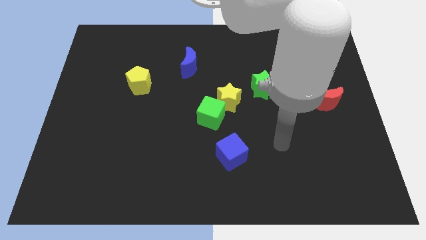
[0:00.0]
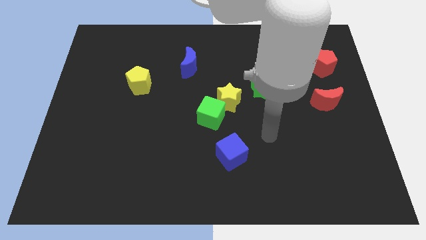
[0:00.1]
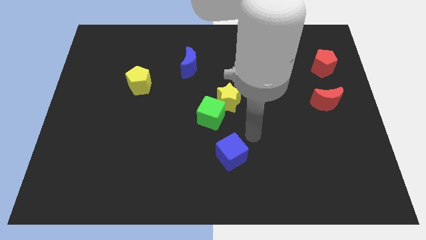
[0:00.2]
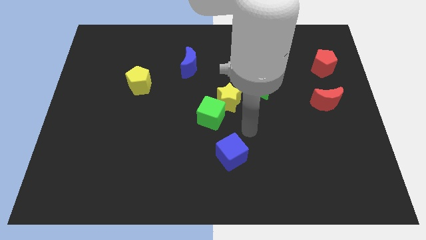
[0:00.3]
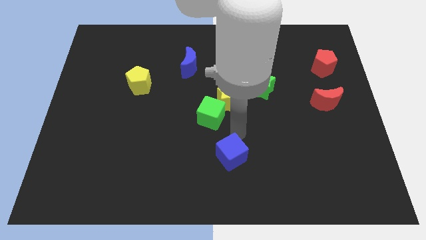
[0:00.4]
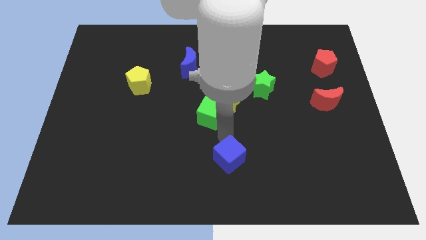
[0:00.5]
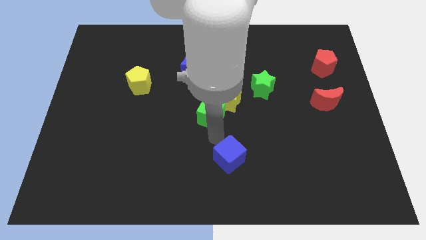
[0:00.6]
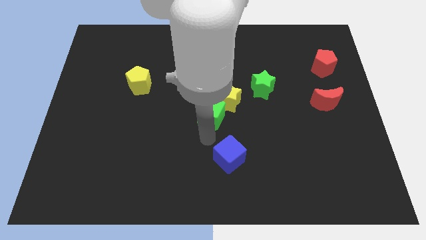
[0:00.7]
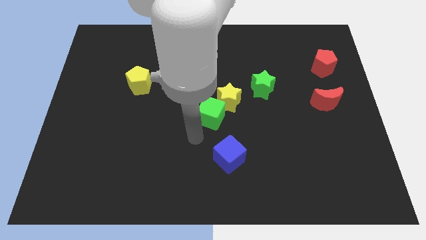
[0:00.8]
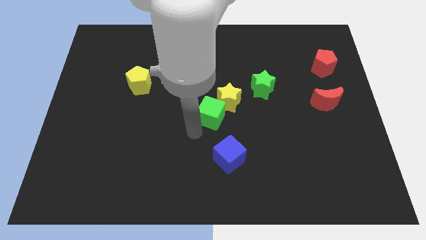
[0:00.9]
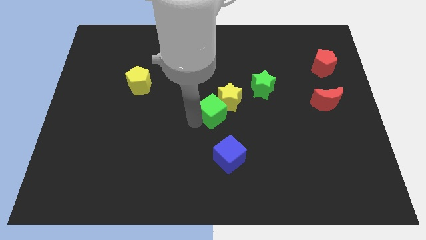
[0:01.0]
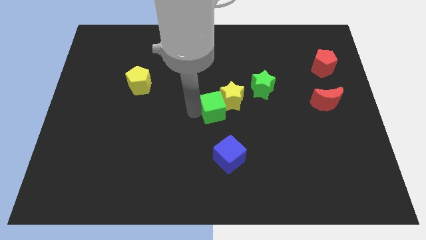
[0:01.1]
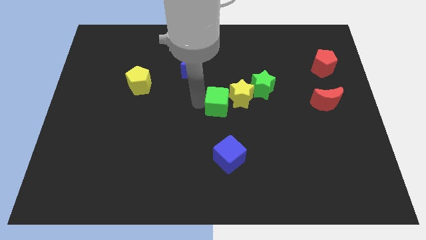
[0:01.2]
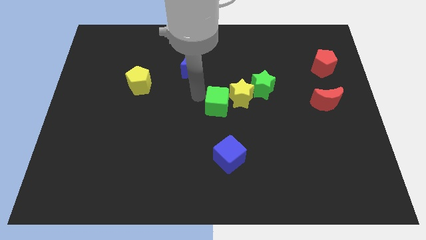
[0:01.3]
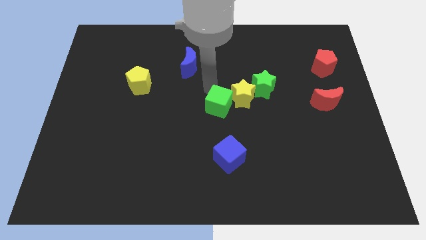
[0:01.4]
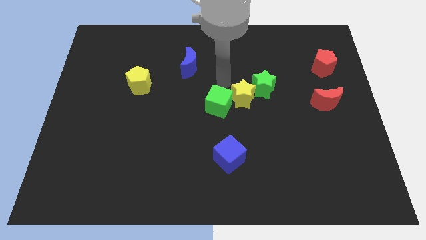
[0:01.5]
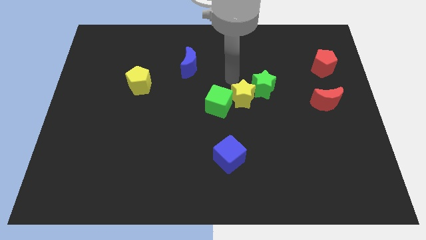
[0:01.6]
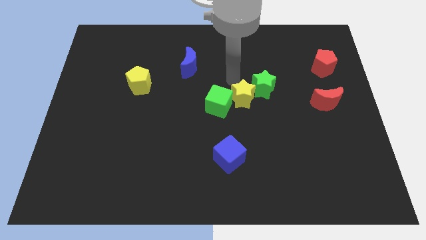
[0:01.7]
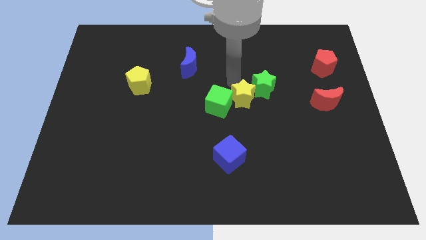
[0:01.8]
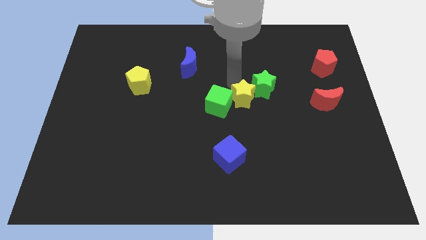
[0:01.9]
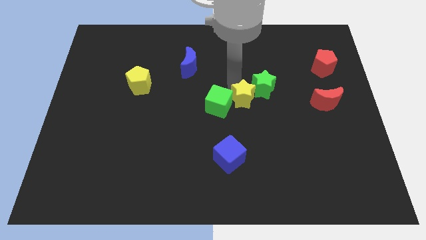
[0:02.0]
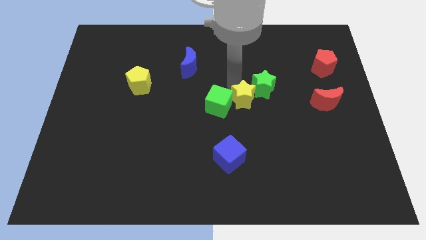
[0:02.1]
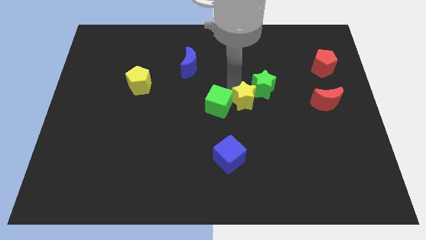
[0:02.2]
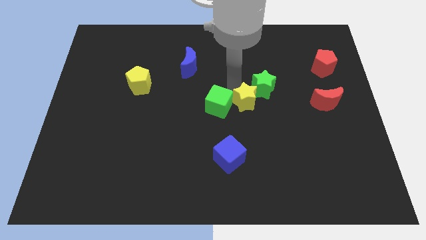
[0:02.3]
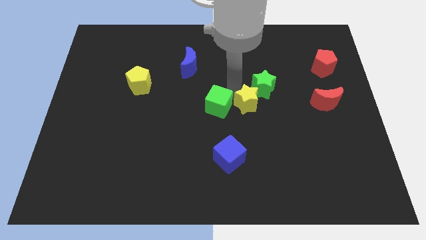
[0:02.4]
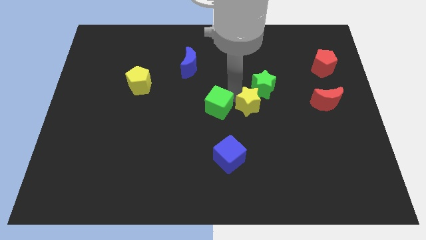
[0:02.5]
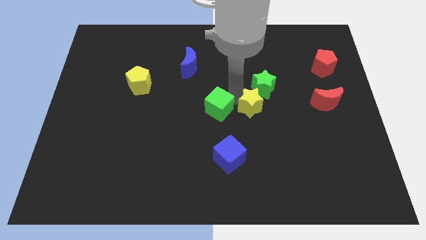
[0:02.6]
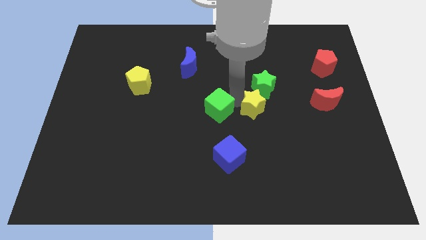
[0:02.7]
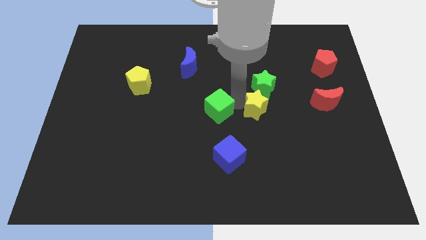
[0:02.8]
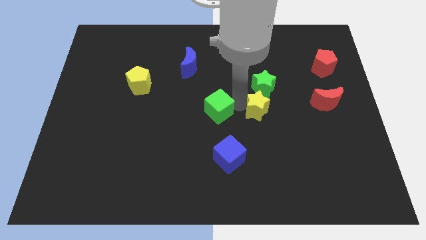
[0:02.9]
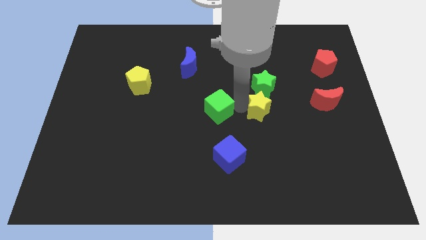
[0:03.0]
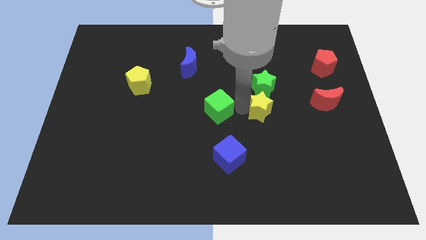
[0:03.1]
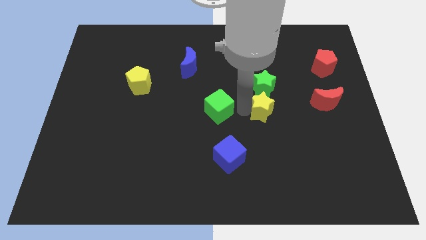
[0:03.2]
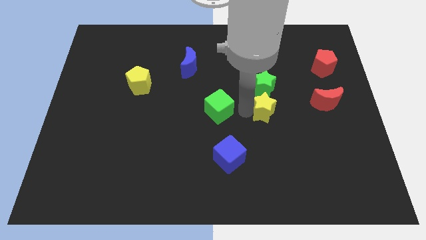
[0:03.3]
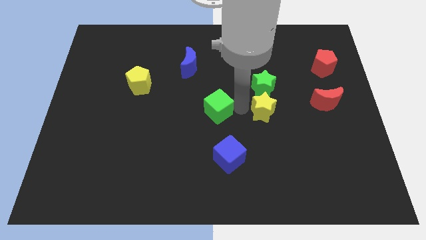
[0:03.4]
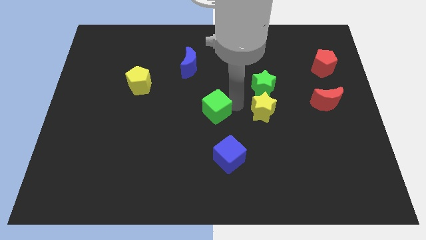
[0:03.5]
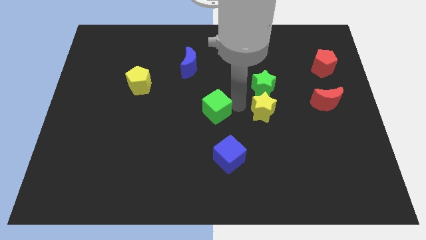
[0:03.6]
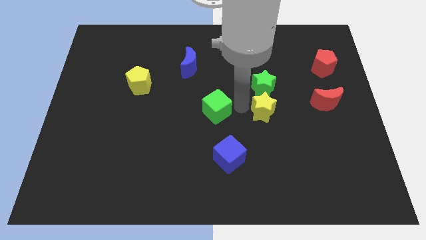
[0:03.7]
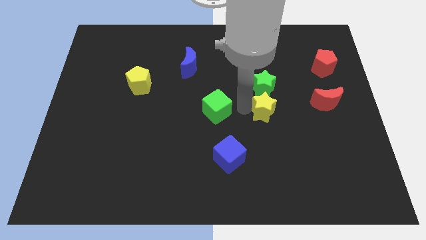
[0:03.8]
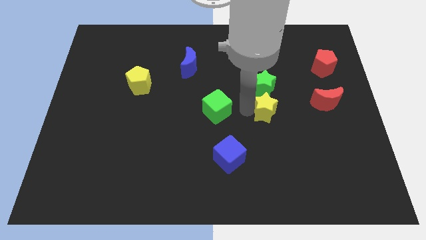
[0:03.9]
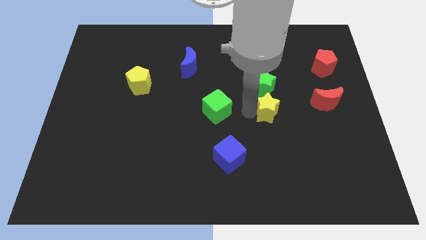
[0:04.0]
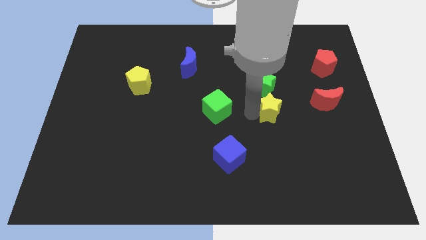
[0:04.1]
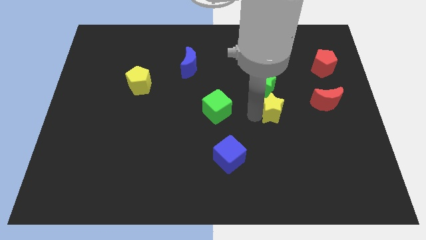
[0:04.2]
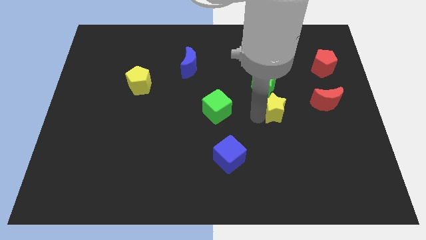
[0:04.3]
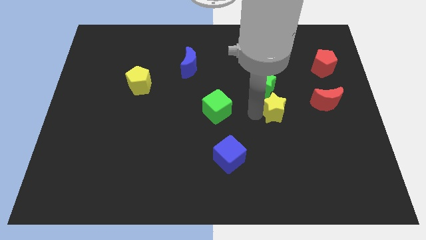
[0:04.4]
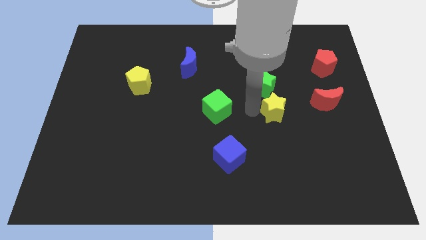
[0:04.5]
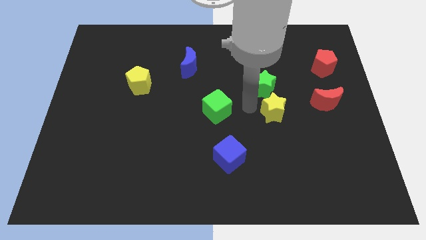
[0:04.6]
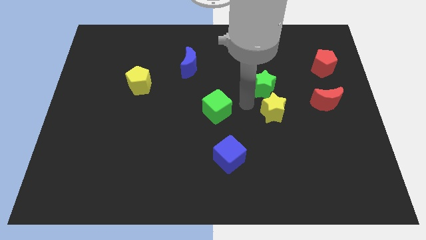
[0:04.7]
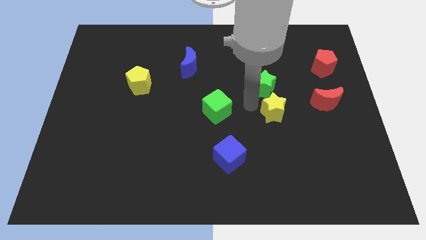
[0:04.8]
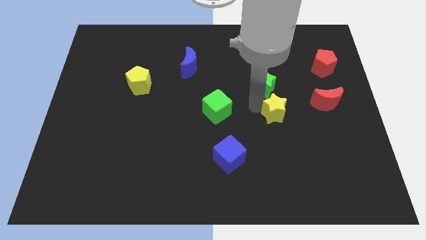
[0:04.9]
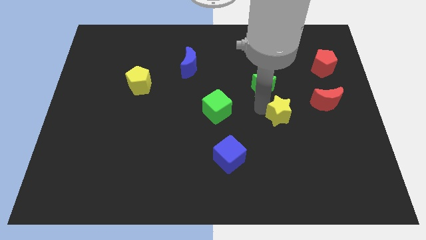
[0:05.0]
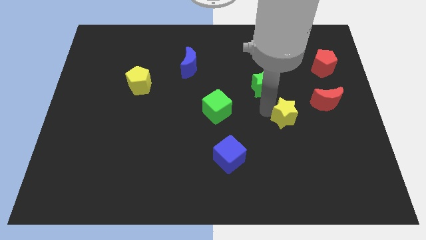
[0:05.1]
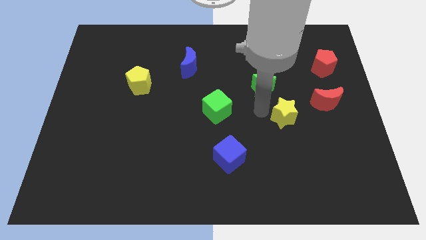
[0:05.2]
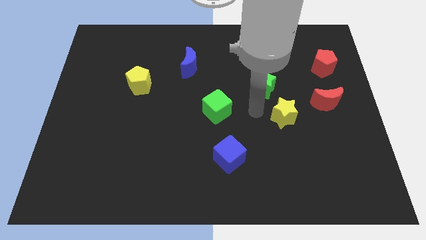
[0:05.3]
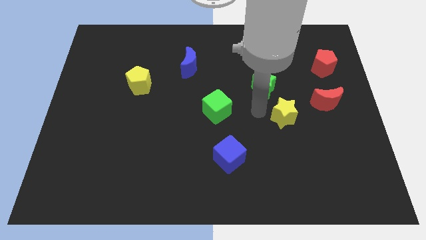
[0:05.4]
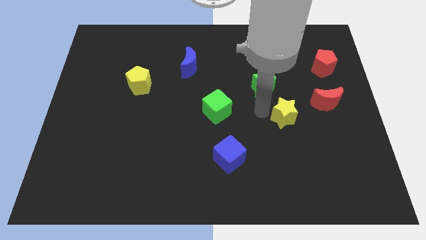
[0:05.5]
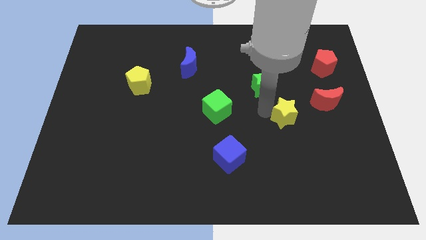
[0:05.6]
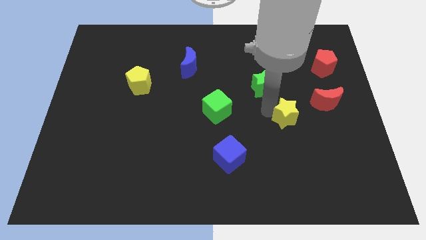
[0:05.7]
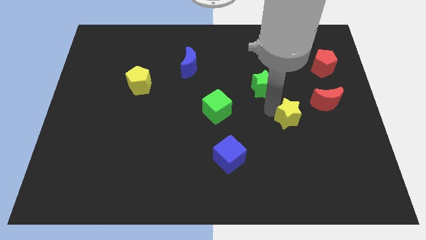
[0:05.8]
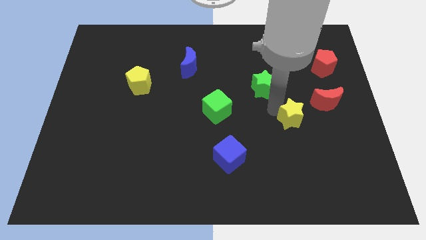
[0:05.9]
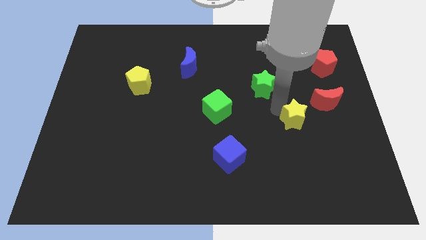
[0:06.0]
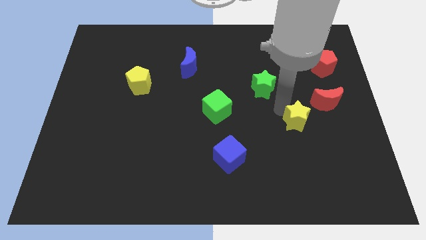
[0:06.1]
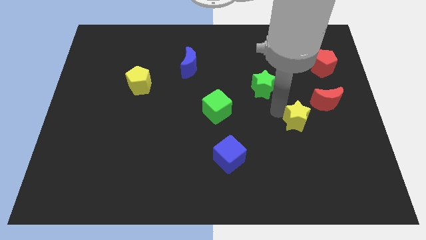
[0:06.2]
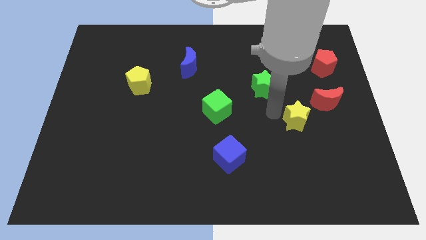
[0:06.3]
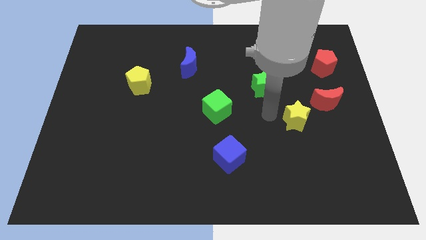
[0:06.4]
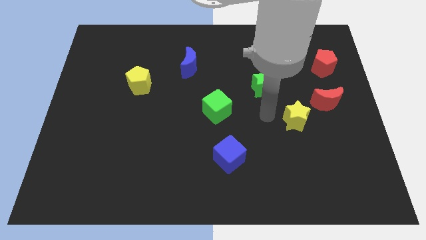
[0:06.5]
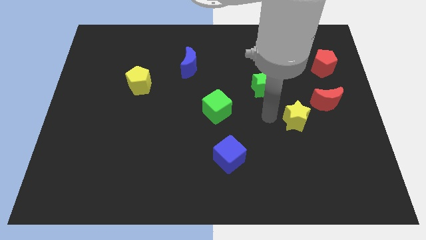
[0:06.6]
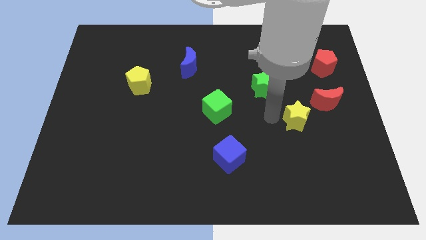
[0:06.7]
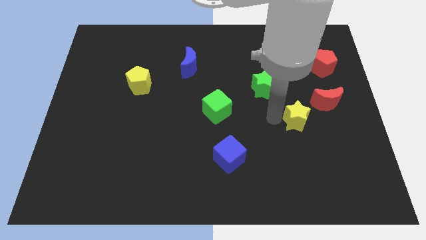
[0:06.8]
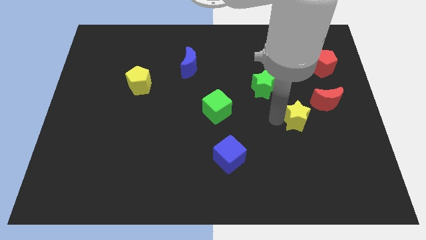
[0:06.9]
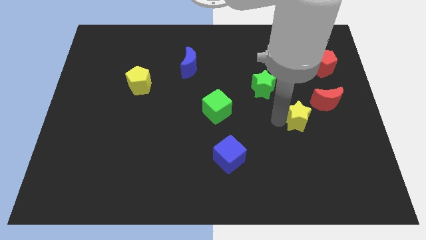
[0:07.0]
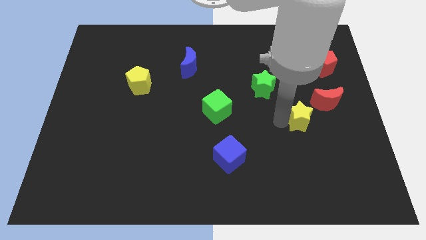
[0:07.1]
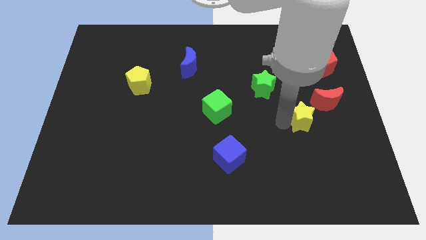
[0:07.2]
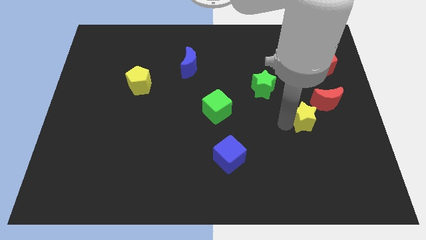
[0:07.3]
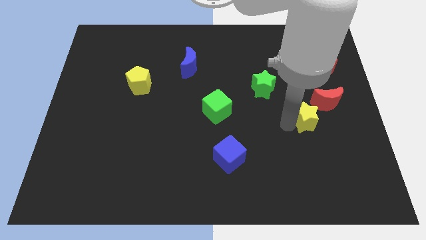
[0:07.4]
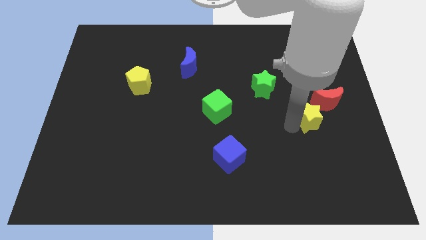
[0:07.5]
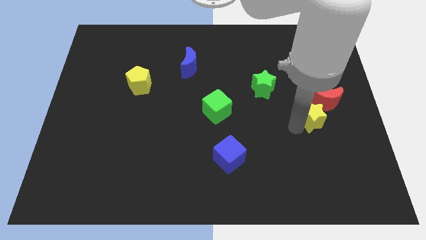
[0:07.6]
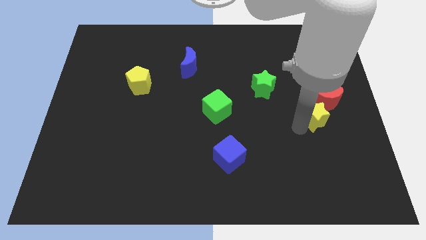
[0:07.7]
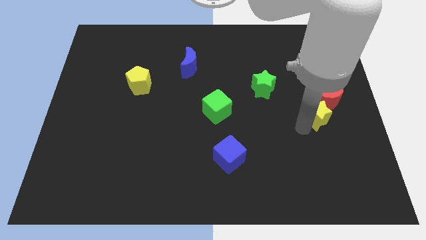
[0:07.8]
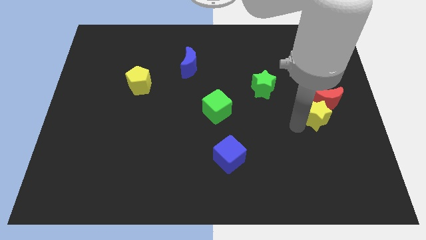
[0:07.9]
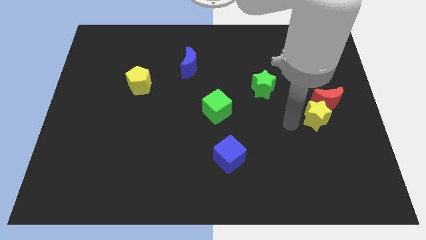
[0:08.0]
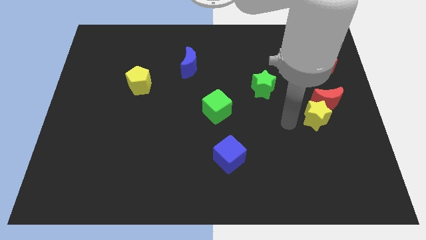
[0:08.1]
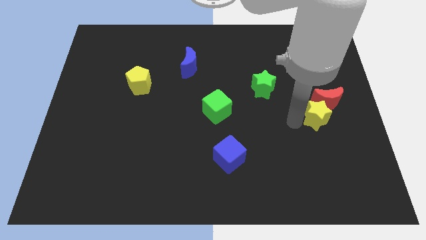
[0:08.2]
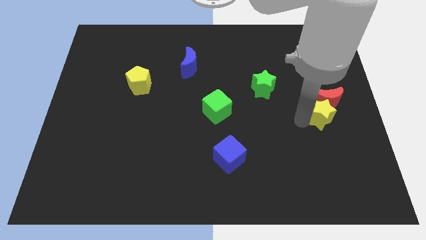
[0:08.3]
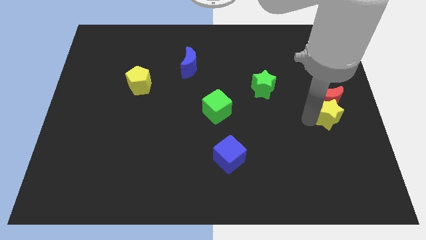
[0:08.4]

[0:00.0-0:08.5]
put the yellow star to the right side of the board
